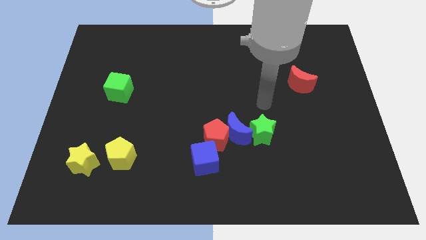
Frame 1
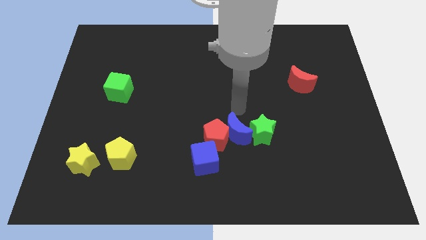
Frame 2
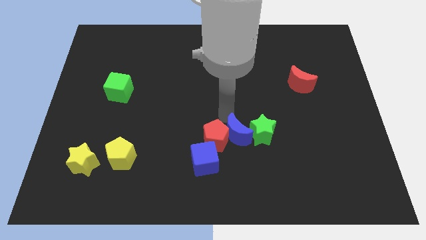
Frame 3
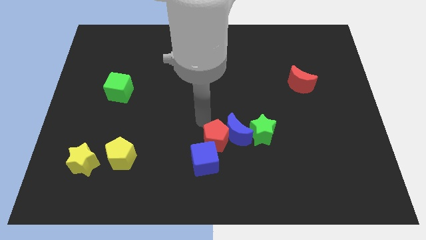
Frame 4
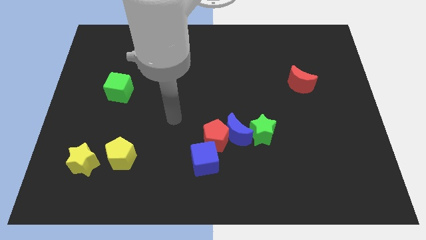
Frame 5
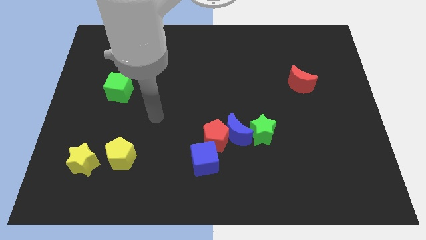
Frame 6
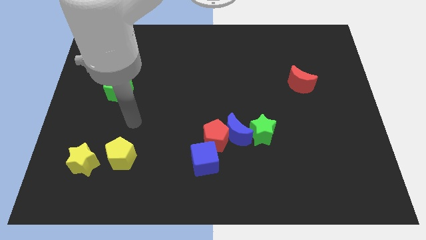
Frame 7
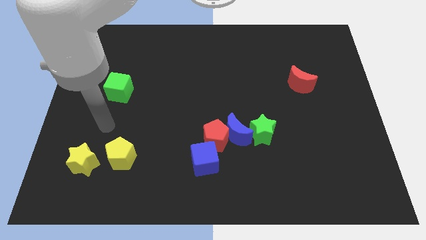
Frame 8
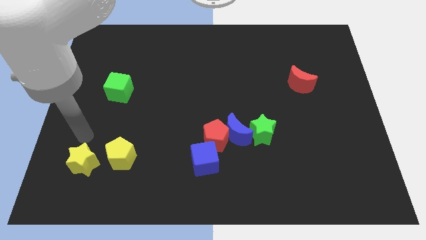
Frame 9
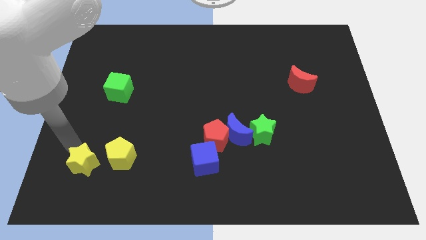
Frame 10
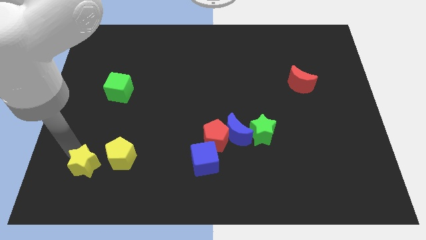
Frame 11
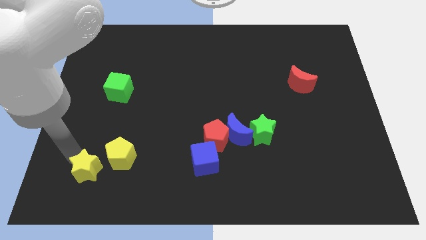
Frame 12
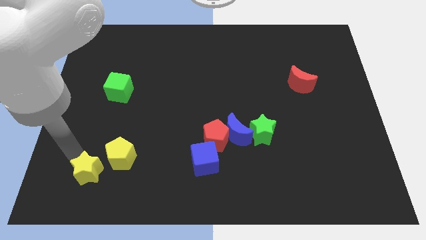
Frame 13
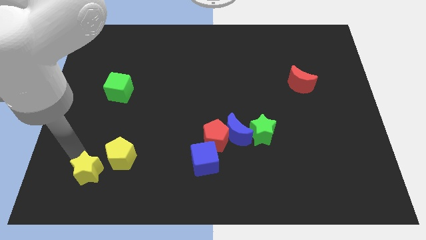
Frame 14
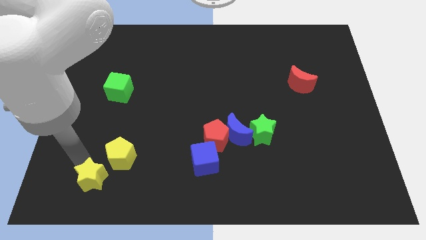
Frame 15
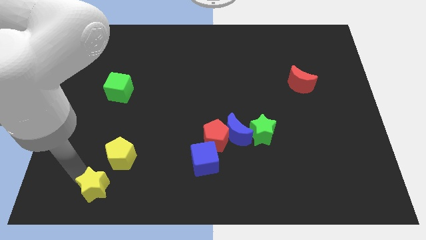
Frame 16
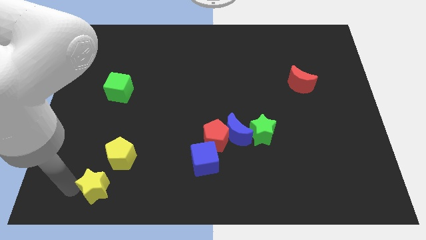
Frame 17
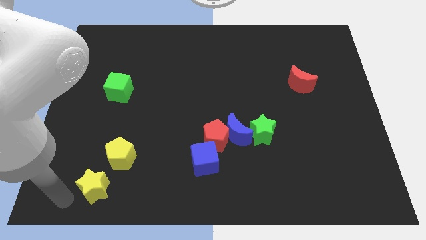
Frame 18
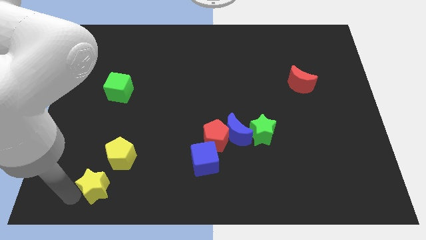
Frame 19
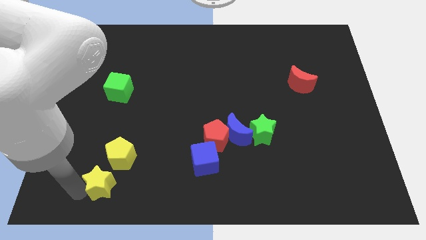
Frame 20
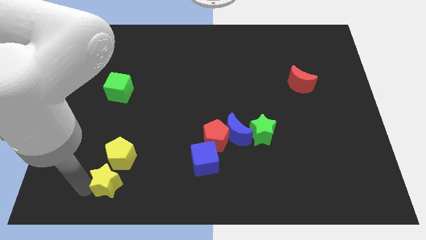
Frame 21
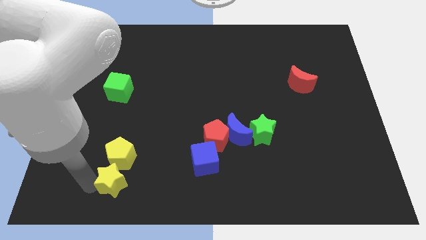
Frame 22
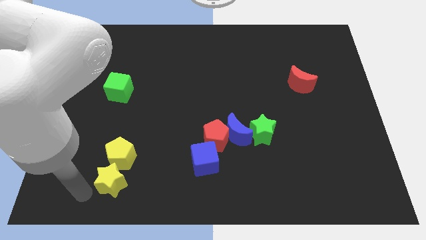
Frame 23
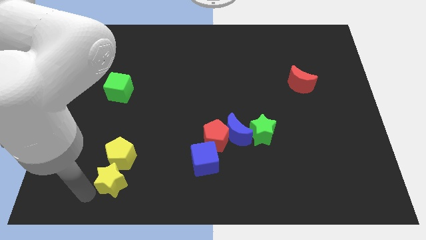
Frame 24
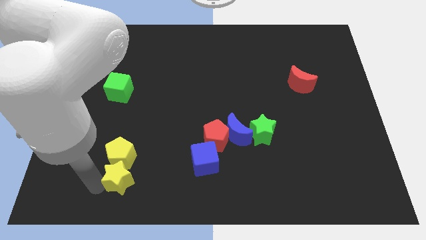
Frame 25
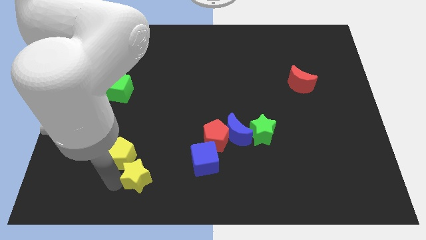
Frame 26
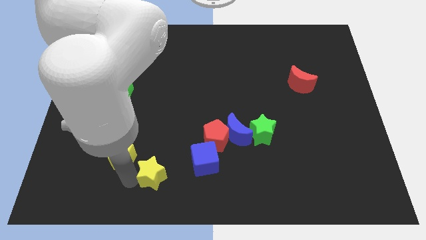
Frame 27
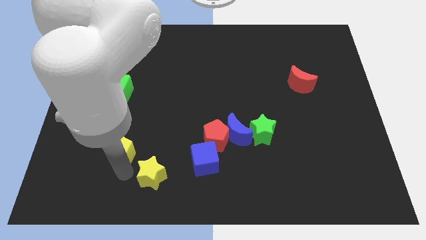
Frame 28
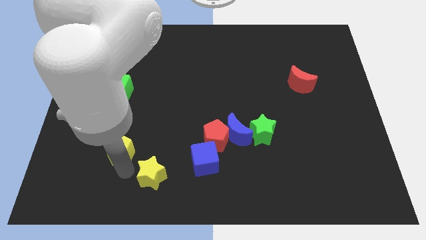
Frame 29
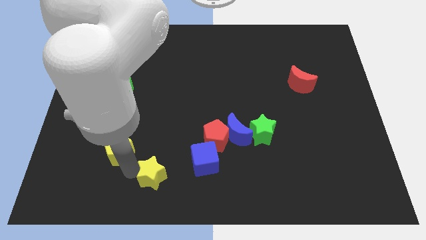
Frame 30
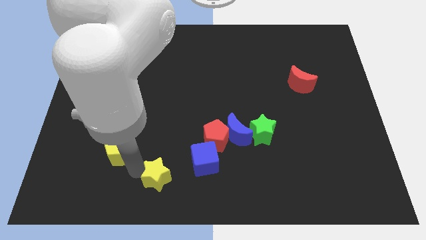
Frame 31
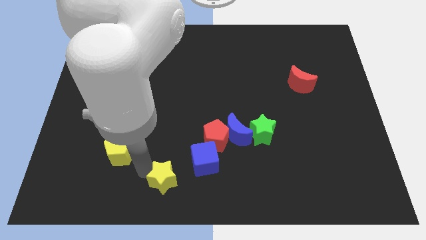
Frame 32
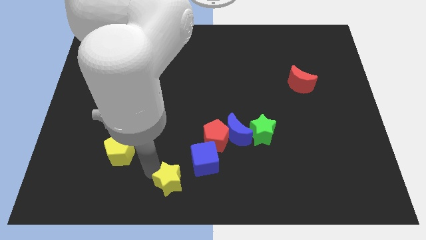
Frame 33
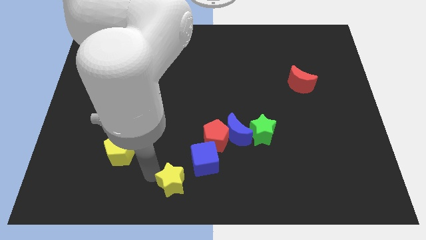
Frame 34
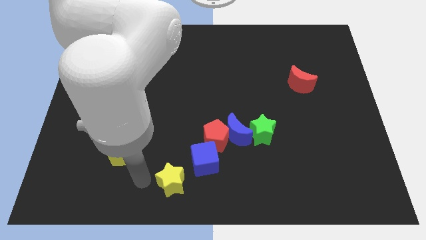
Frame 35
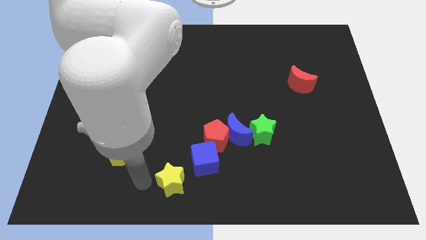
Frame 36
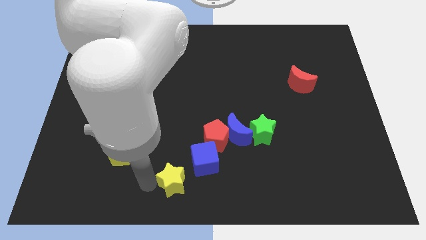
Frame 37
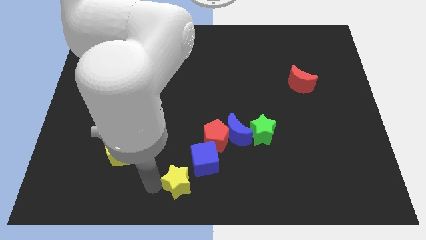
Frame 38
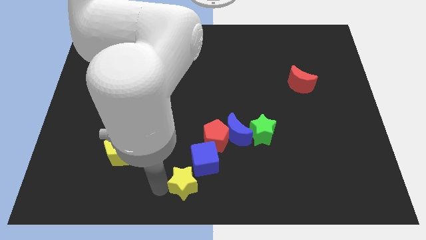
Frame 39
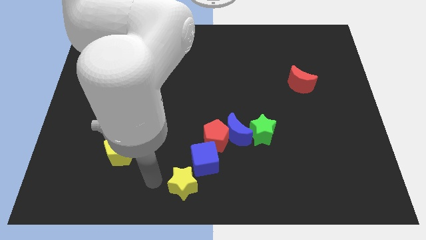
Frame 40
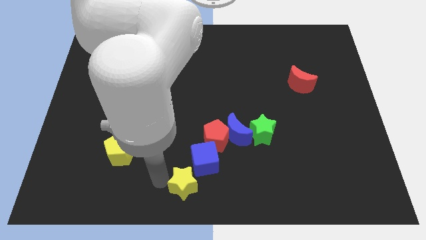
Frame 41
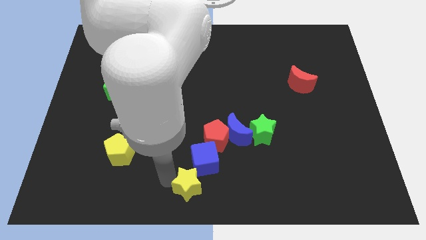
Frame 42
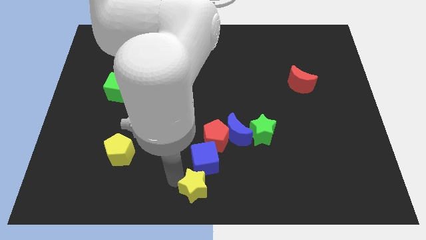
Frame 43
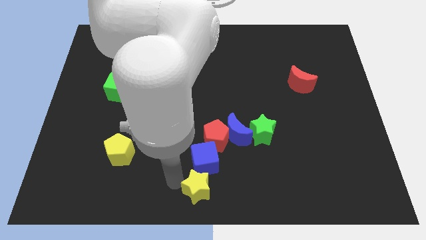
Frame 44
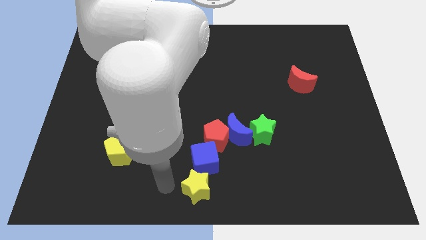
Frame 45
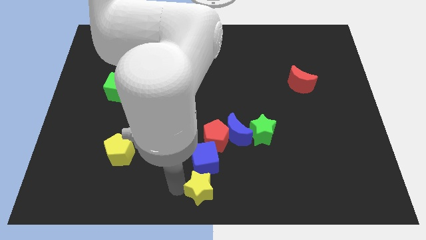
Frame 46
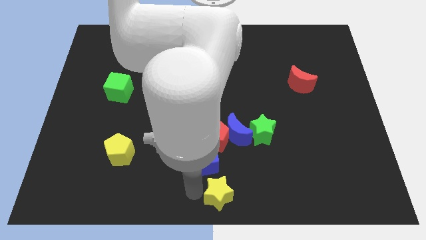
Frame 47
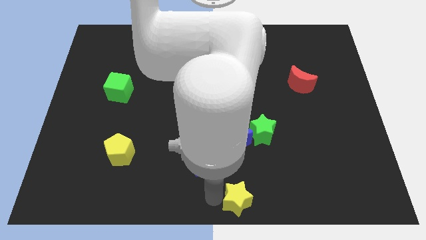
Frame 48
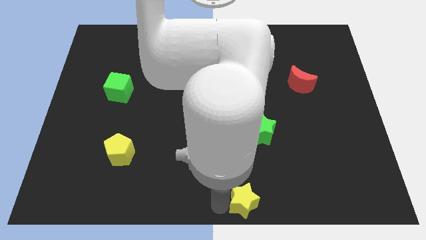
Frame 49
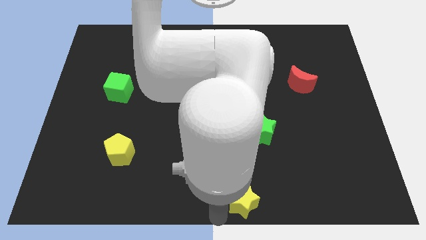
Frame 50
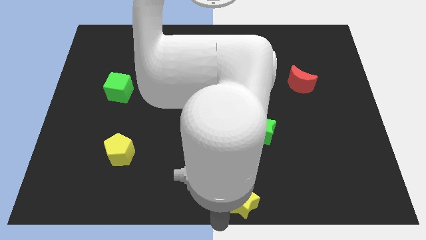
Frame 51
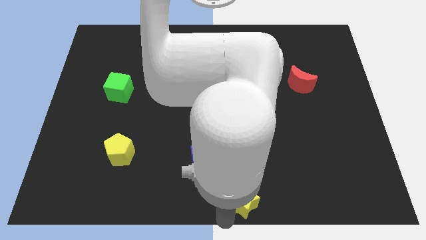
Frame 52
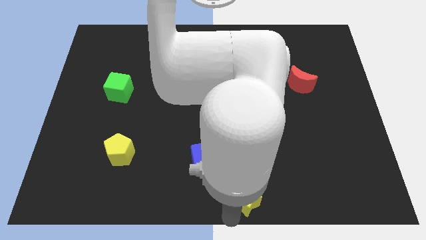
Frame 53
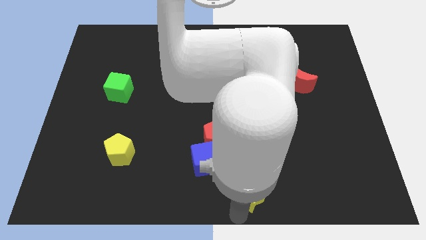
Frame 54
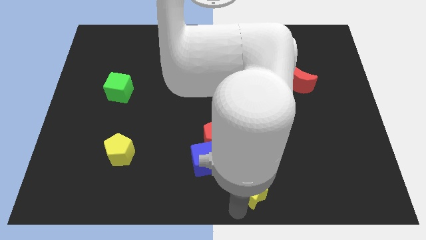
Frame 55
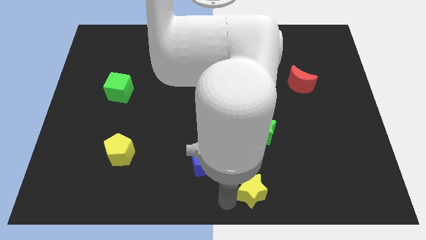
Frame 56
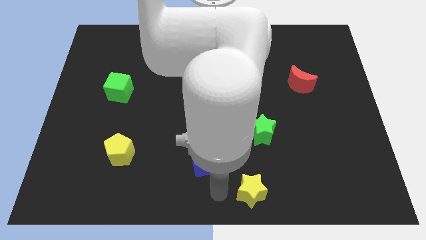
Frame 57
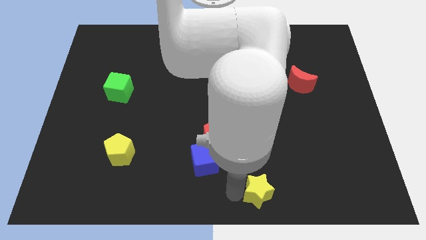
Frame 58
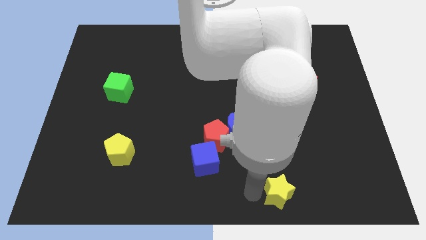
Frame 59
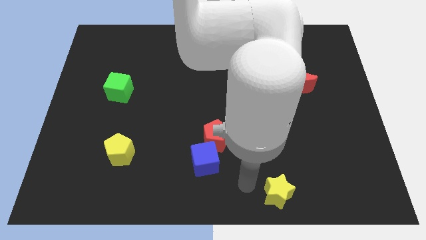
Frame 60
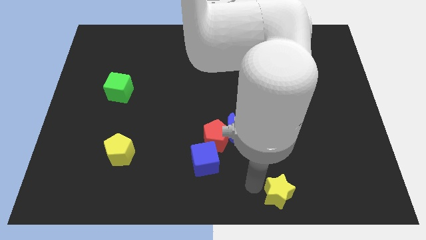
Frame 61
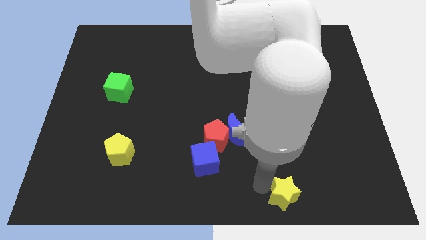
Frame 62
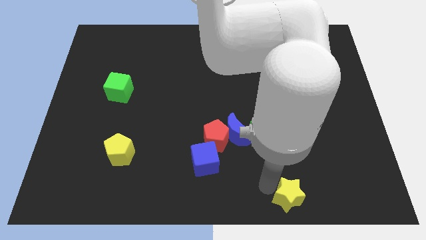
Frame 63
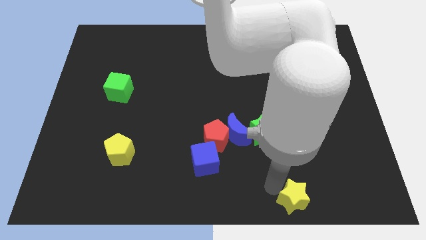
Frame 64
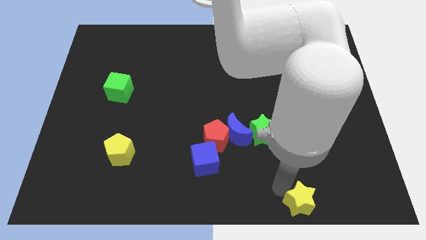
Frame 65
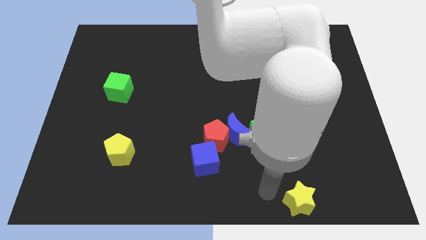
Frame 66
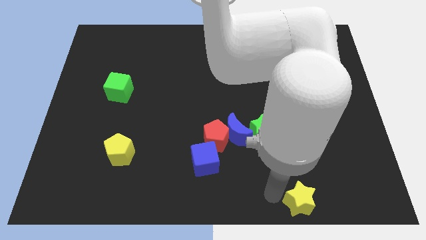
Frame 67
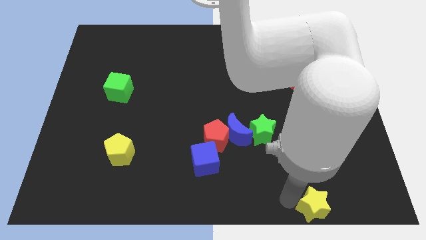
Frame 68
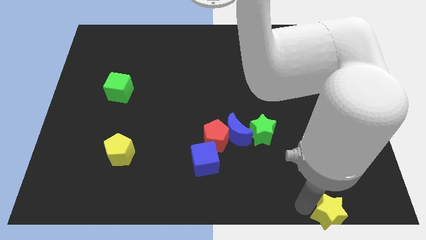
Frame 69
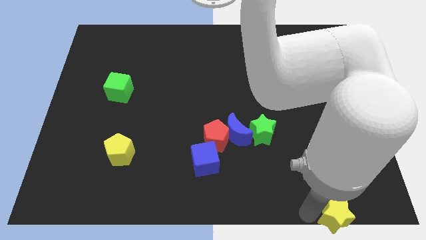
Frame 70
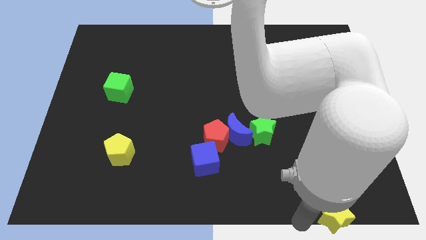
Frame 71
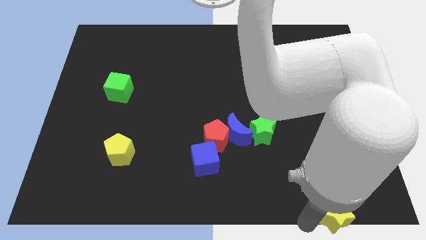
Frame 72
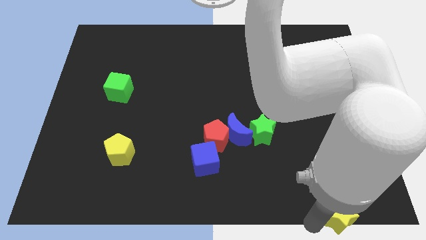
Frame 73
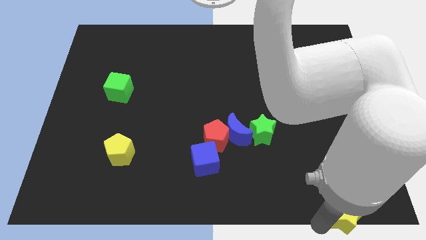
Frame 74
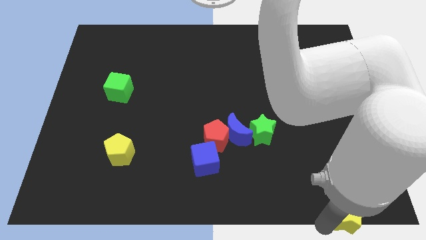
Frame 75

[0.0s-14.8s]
put the yellow star to the lower right corner
